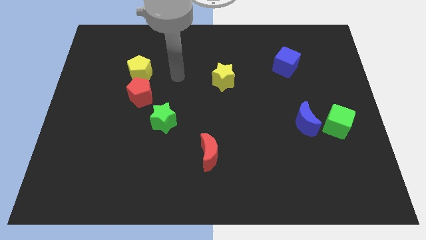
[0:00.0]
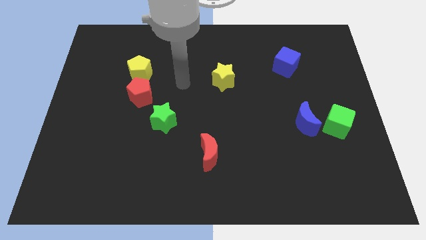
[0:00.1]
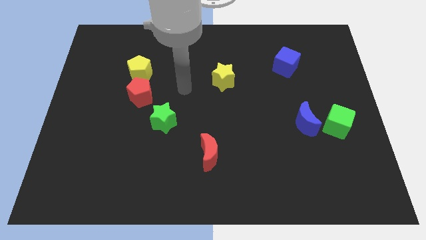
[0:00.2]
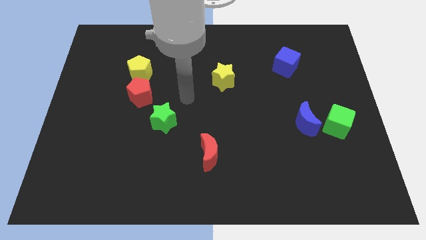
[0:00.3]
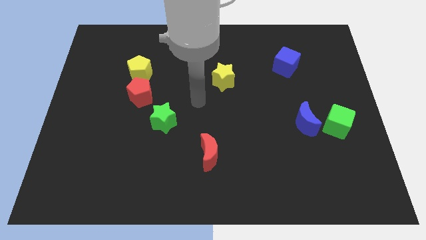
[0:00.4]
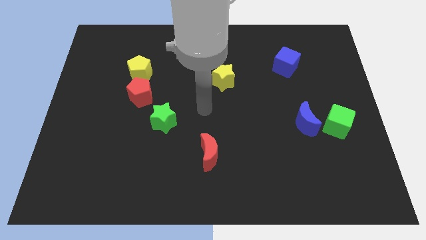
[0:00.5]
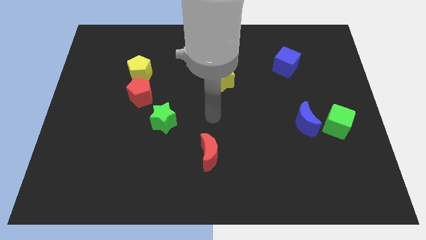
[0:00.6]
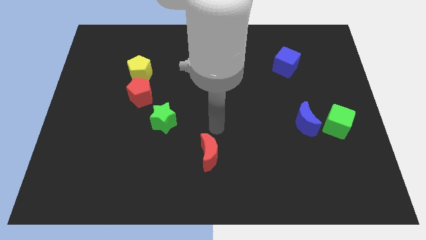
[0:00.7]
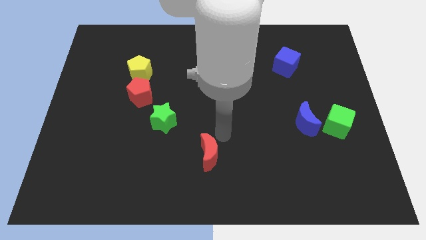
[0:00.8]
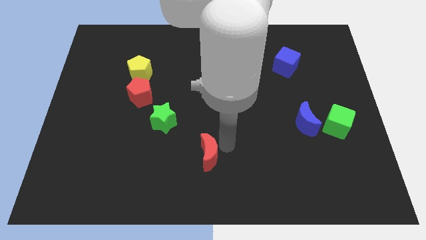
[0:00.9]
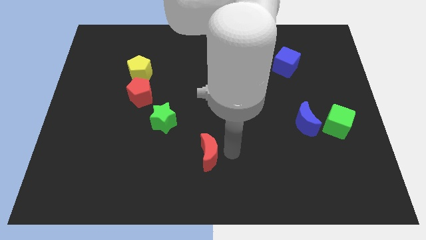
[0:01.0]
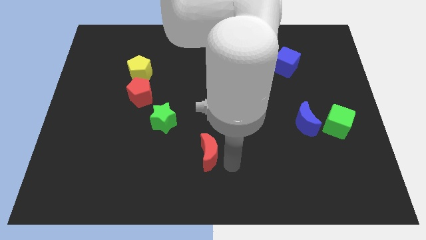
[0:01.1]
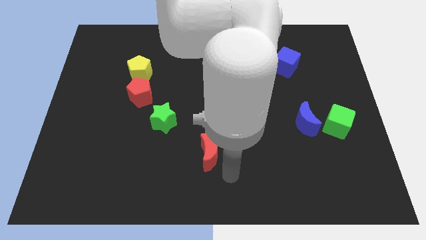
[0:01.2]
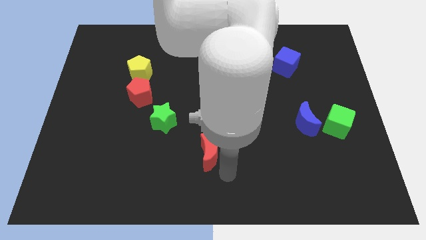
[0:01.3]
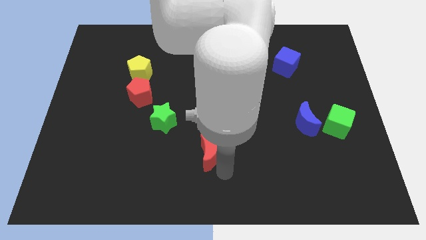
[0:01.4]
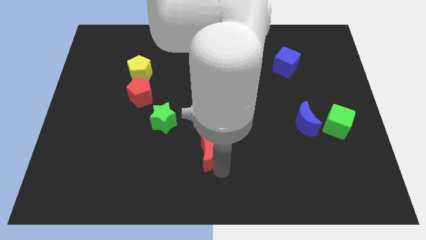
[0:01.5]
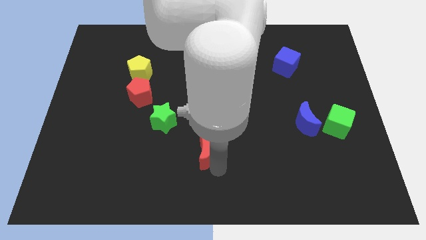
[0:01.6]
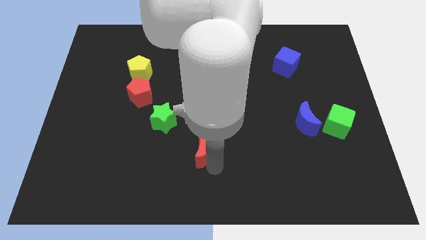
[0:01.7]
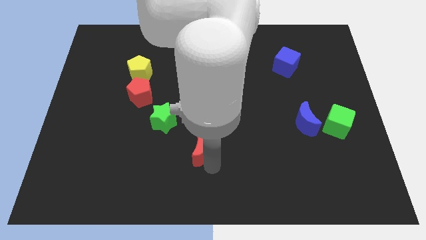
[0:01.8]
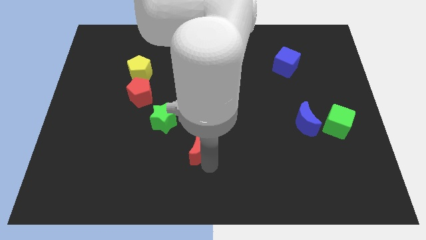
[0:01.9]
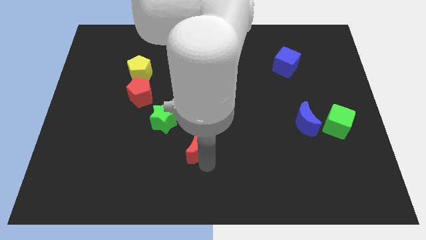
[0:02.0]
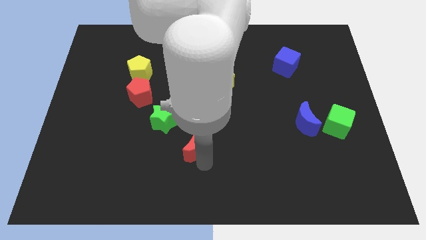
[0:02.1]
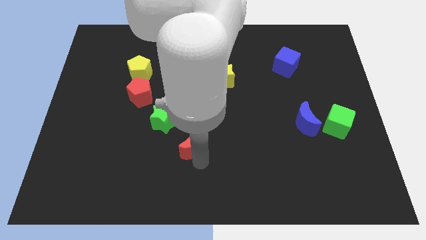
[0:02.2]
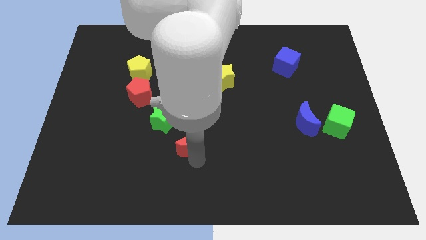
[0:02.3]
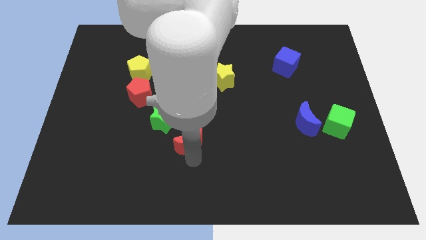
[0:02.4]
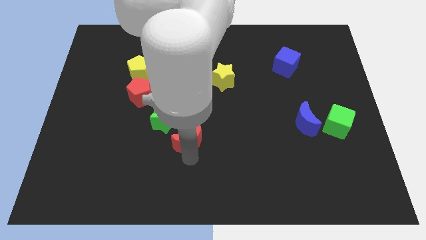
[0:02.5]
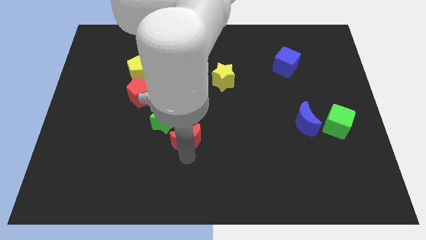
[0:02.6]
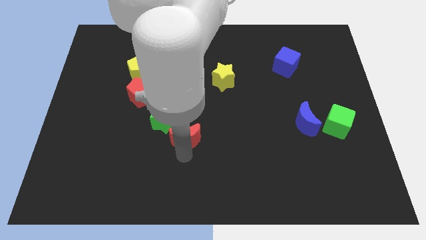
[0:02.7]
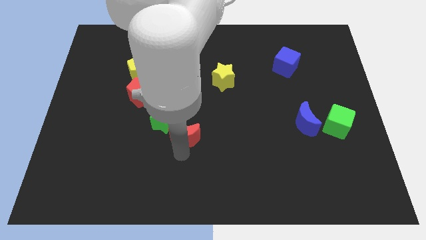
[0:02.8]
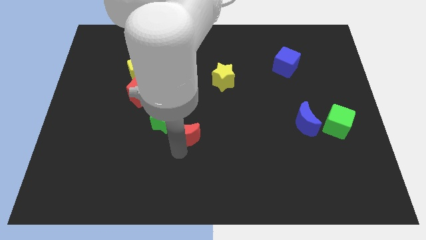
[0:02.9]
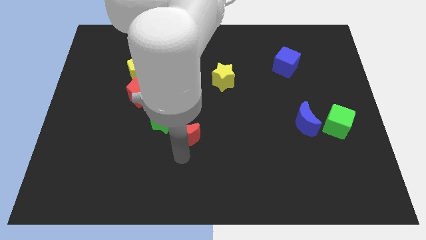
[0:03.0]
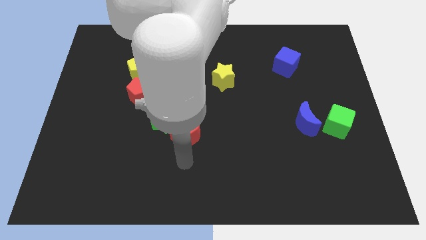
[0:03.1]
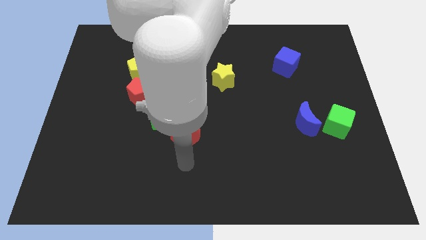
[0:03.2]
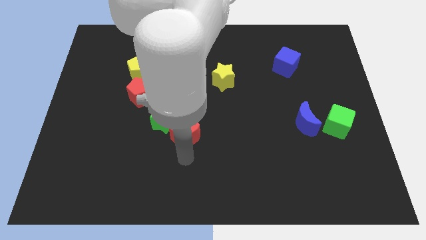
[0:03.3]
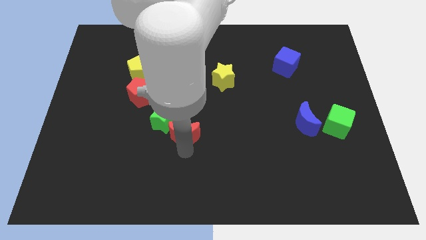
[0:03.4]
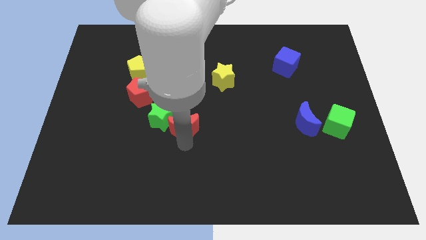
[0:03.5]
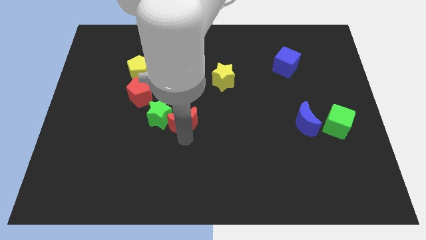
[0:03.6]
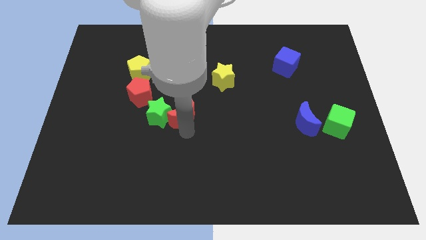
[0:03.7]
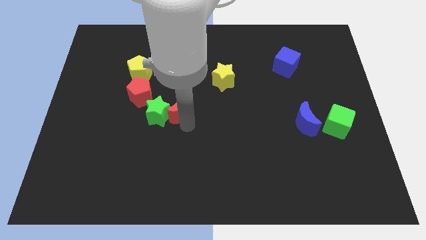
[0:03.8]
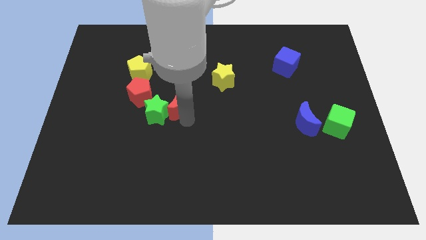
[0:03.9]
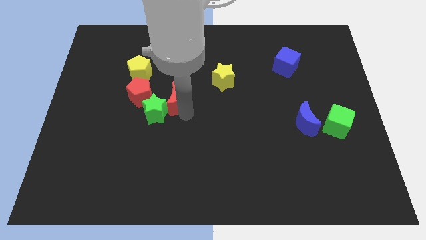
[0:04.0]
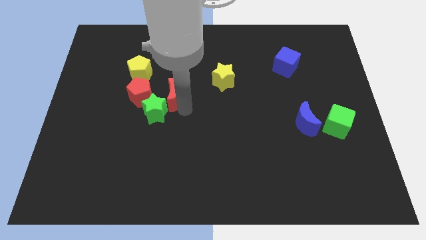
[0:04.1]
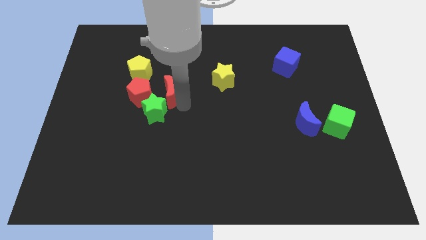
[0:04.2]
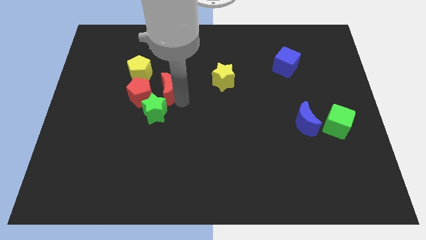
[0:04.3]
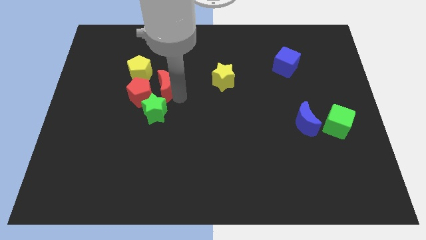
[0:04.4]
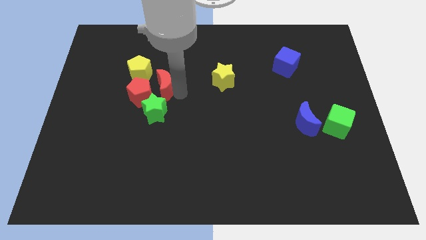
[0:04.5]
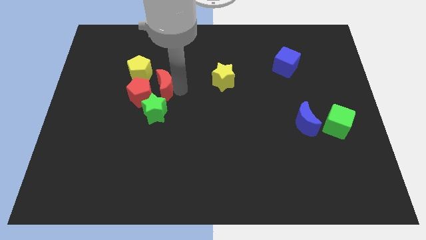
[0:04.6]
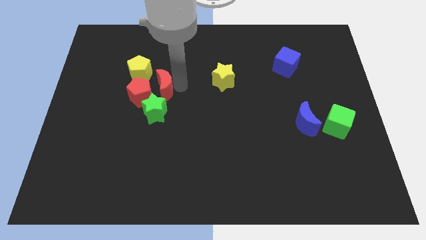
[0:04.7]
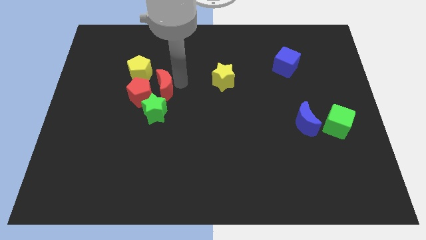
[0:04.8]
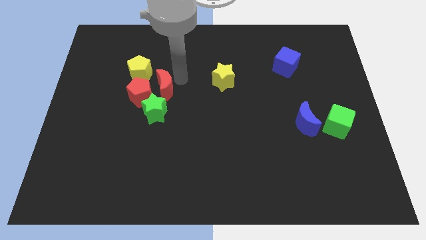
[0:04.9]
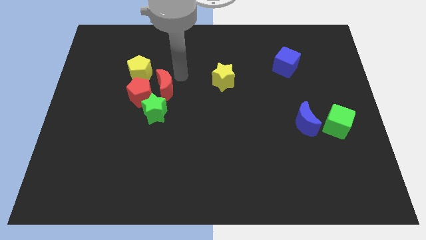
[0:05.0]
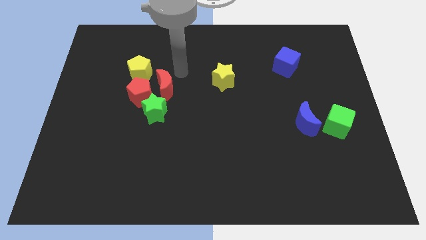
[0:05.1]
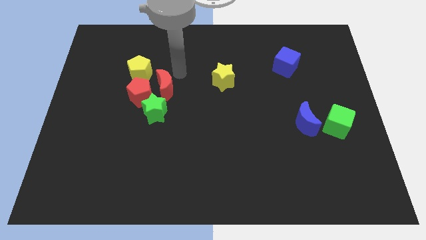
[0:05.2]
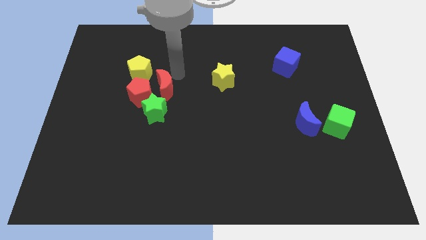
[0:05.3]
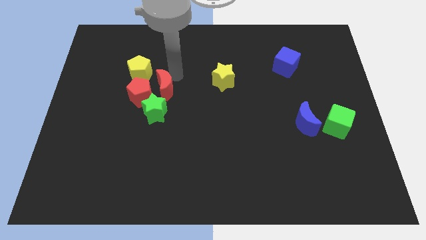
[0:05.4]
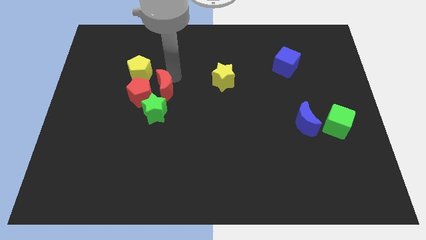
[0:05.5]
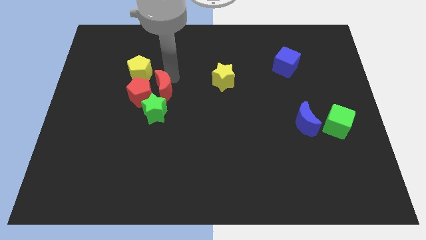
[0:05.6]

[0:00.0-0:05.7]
put the red moon to the red pentagon

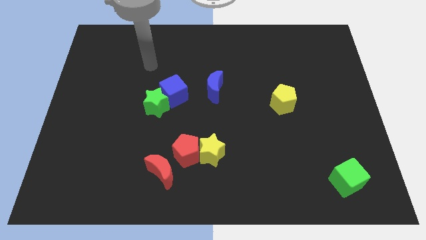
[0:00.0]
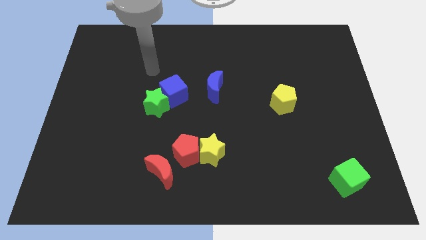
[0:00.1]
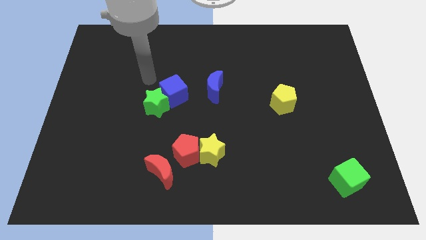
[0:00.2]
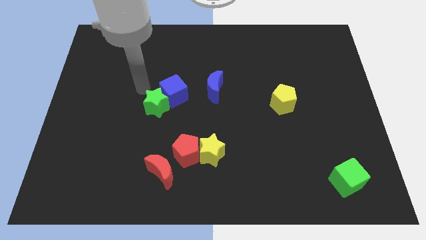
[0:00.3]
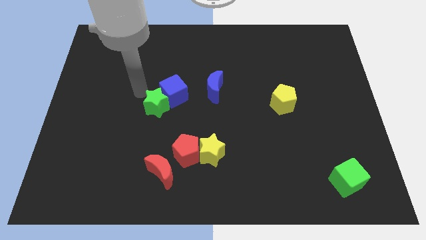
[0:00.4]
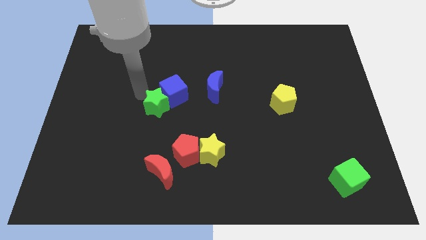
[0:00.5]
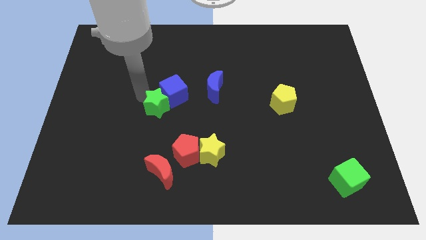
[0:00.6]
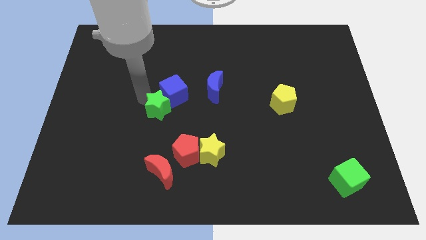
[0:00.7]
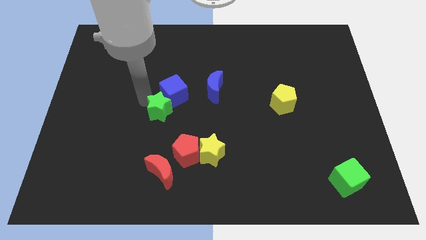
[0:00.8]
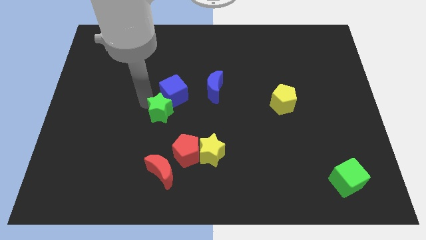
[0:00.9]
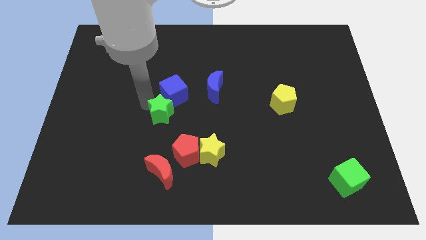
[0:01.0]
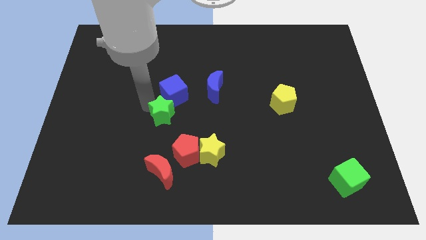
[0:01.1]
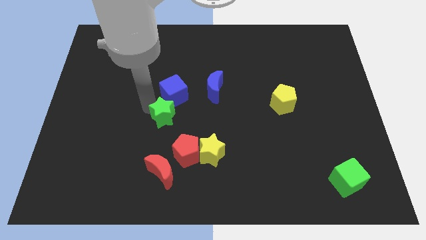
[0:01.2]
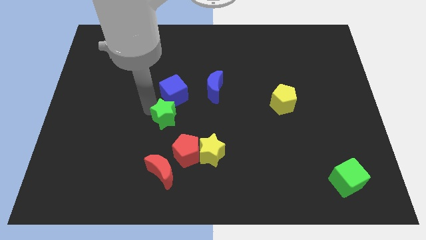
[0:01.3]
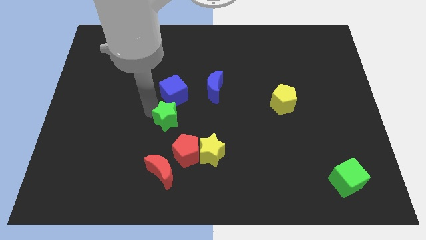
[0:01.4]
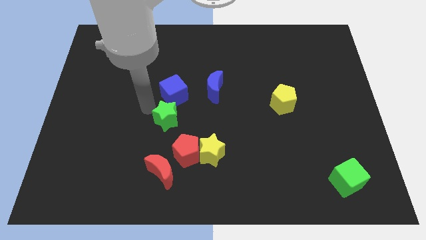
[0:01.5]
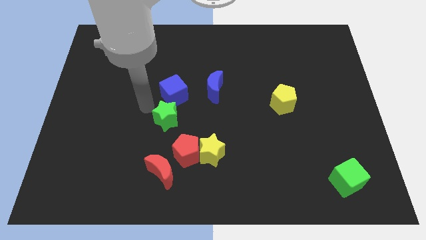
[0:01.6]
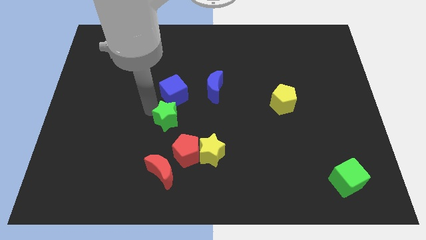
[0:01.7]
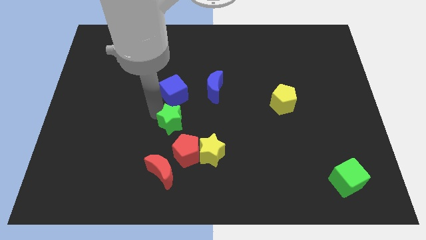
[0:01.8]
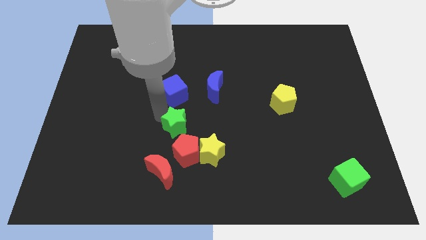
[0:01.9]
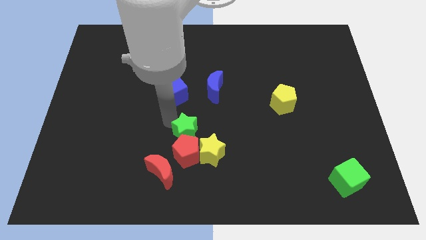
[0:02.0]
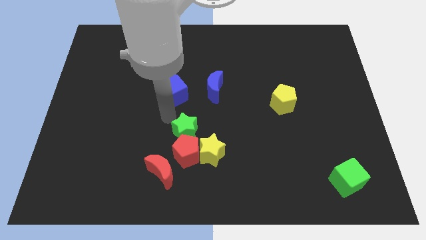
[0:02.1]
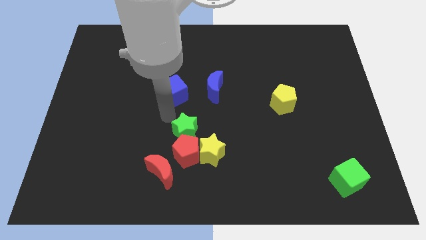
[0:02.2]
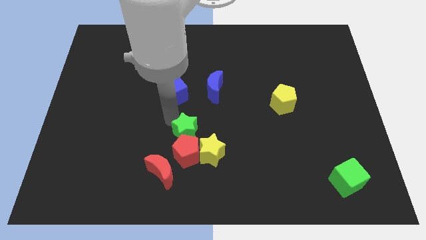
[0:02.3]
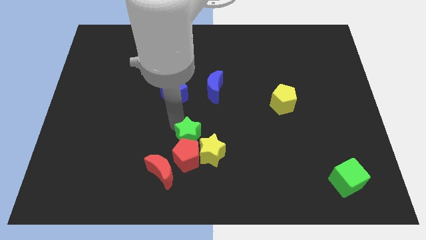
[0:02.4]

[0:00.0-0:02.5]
slide the green star towards the yellow star
